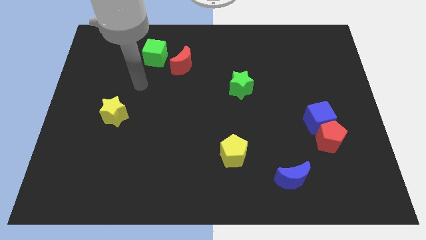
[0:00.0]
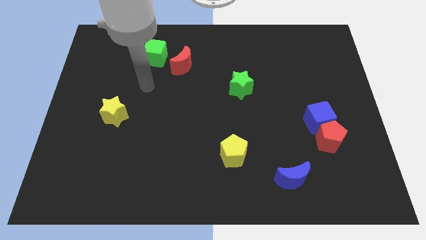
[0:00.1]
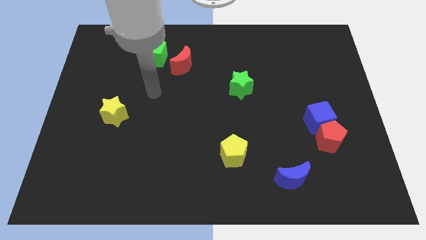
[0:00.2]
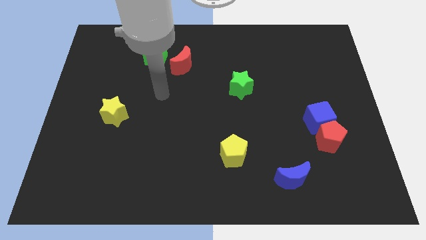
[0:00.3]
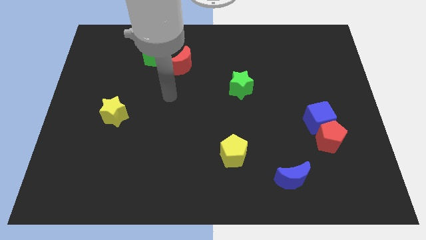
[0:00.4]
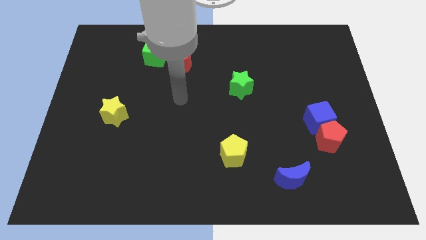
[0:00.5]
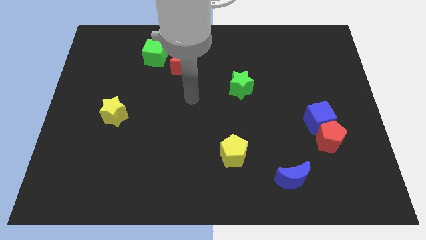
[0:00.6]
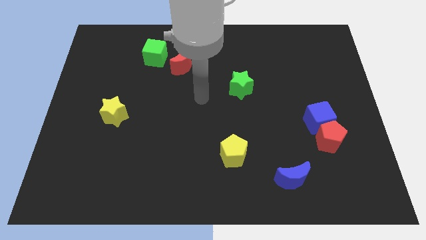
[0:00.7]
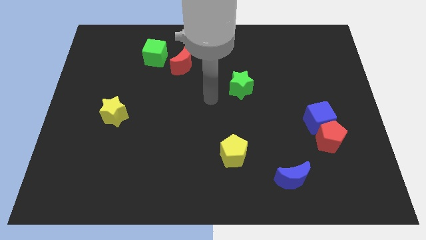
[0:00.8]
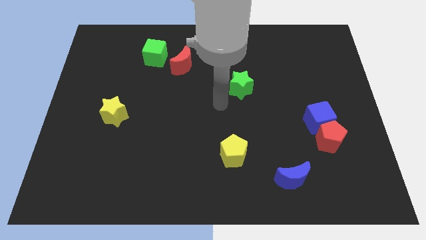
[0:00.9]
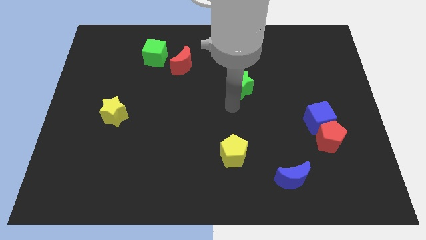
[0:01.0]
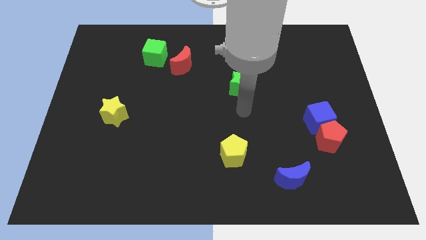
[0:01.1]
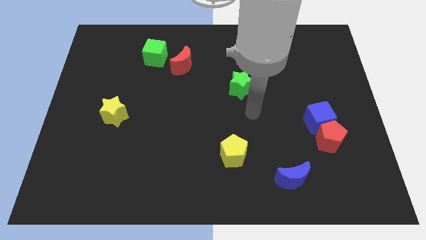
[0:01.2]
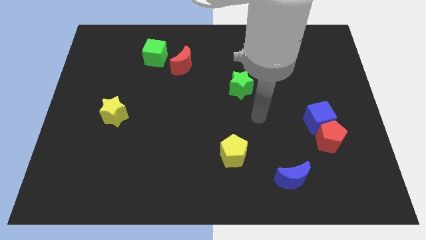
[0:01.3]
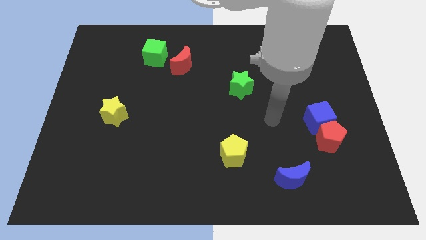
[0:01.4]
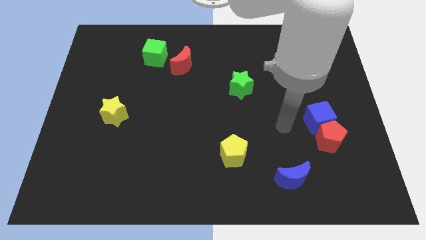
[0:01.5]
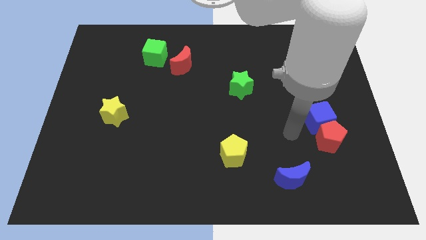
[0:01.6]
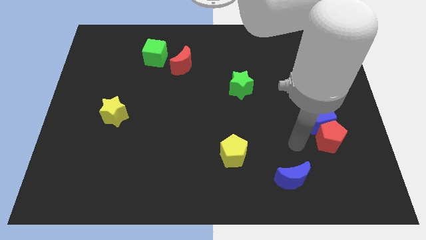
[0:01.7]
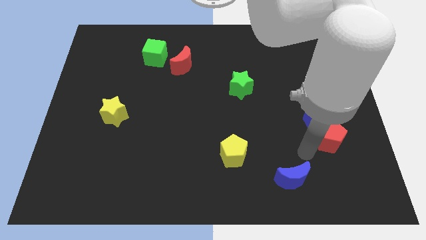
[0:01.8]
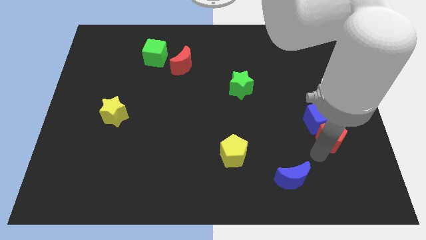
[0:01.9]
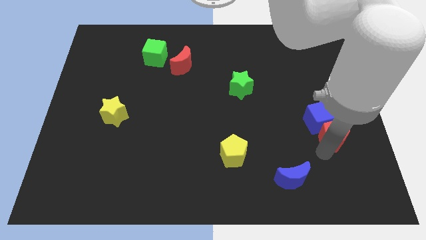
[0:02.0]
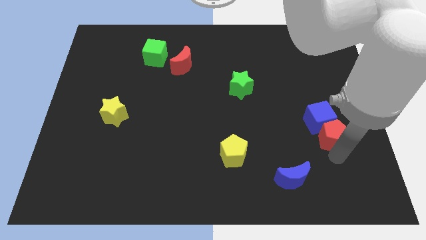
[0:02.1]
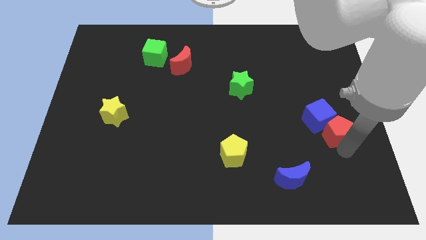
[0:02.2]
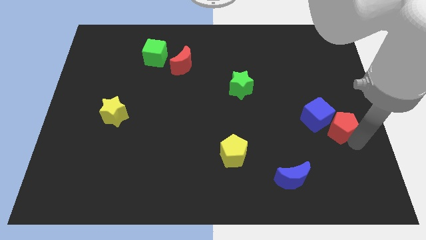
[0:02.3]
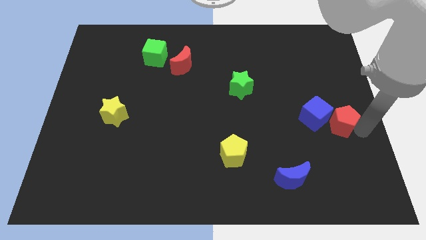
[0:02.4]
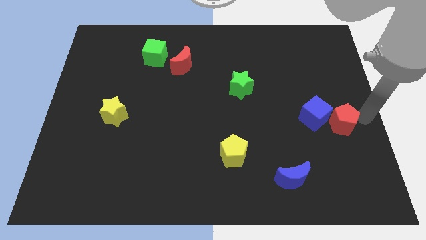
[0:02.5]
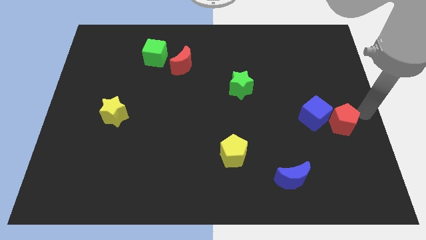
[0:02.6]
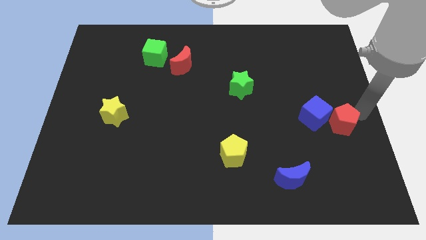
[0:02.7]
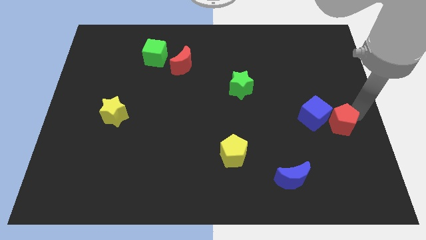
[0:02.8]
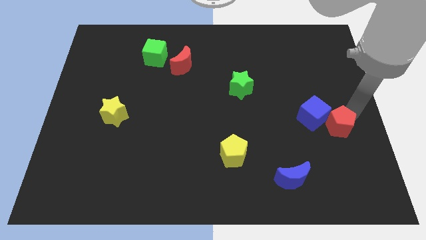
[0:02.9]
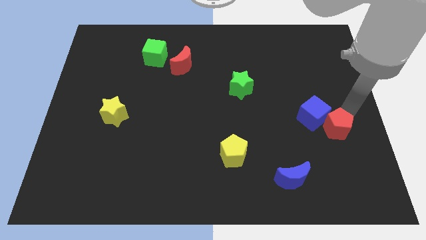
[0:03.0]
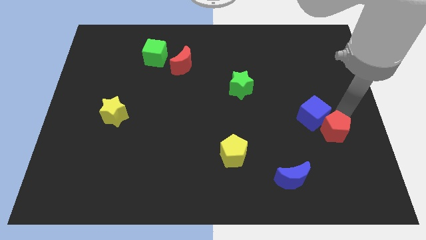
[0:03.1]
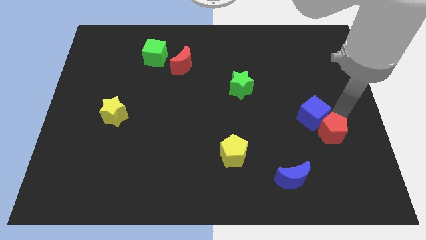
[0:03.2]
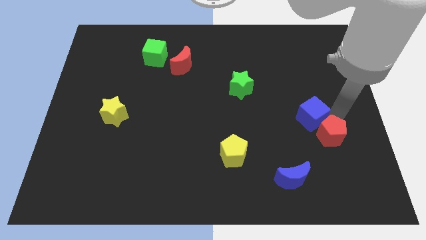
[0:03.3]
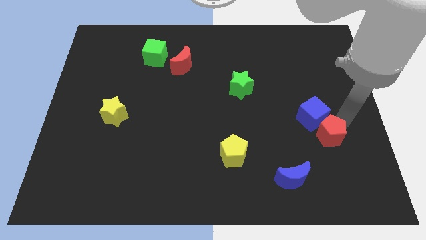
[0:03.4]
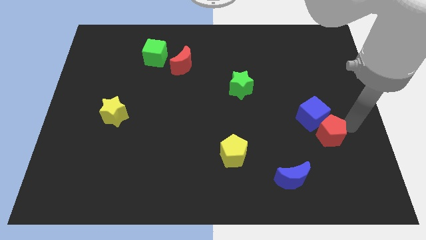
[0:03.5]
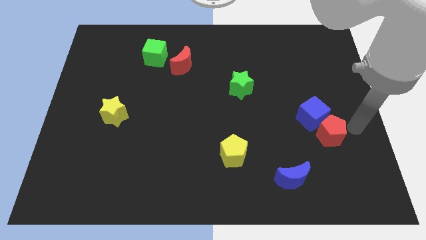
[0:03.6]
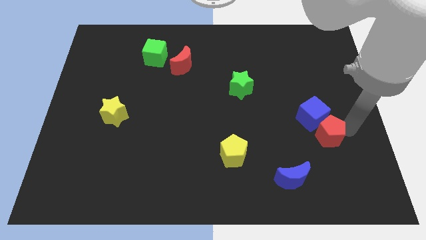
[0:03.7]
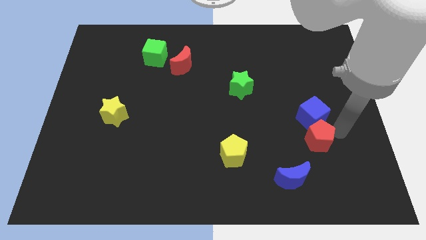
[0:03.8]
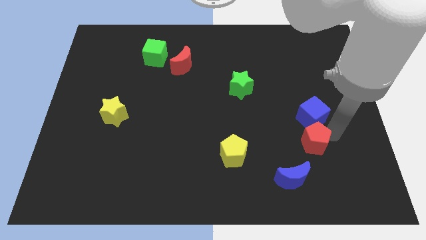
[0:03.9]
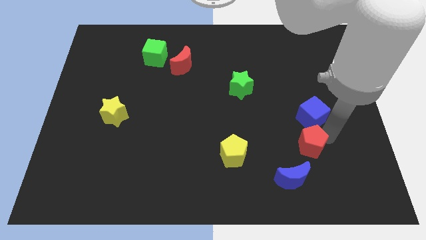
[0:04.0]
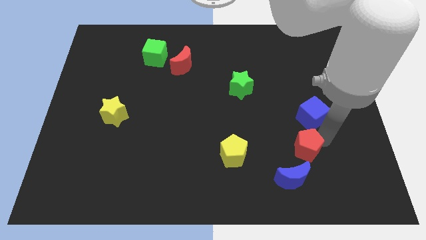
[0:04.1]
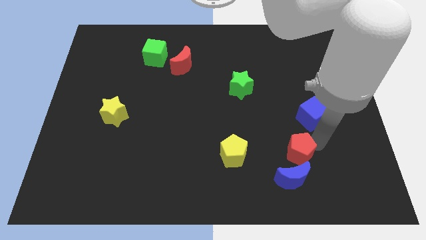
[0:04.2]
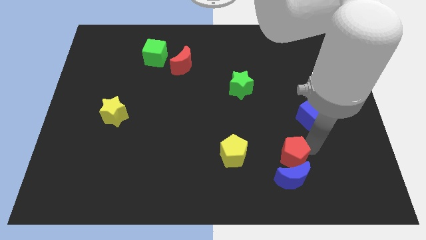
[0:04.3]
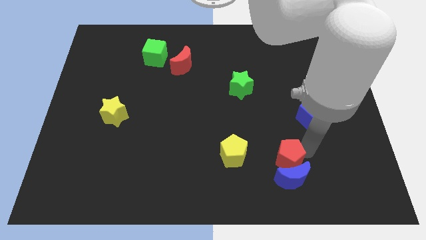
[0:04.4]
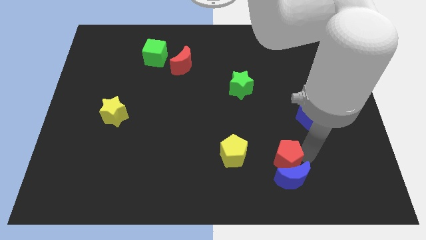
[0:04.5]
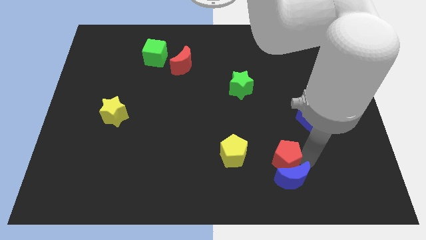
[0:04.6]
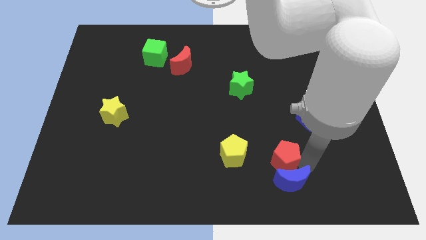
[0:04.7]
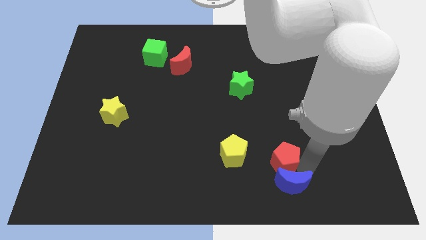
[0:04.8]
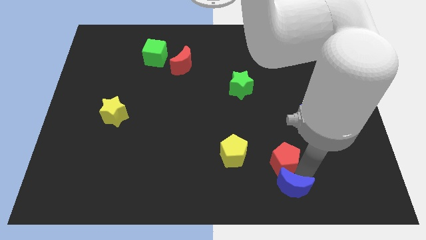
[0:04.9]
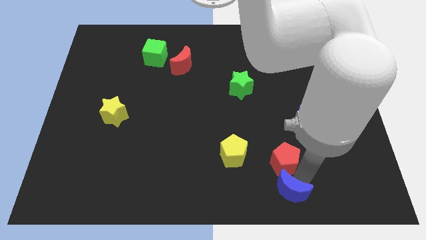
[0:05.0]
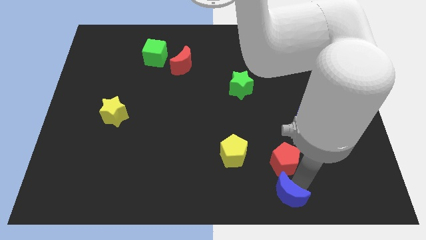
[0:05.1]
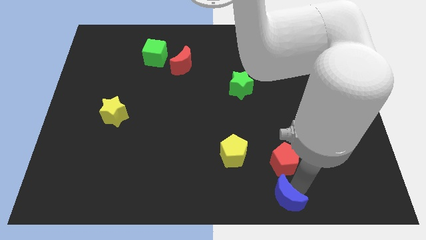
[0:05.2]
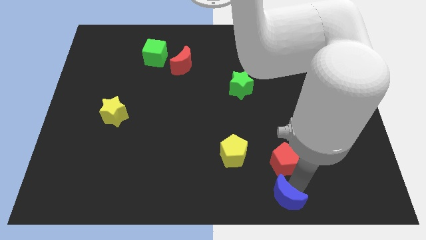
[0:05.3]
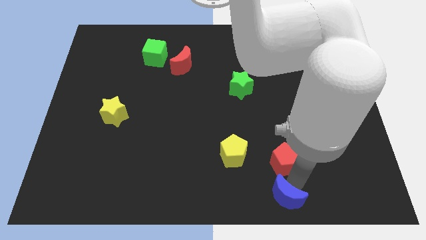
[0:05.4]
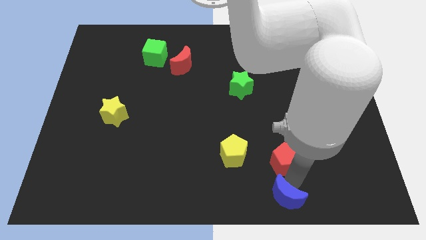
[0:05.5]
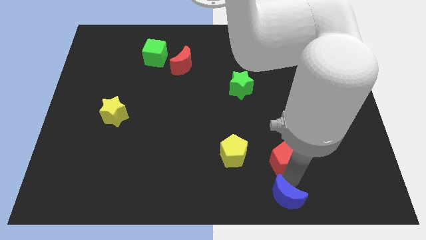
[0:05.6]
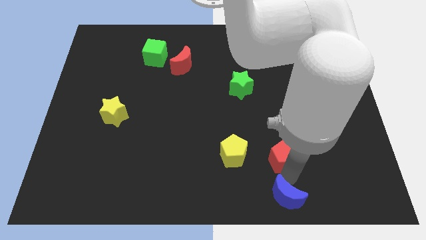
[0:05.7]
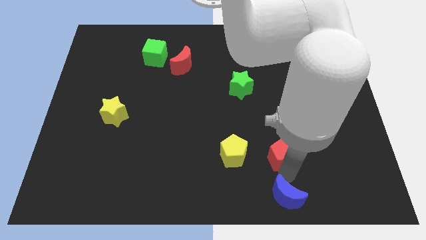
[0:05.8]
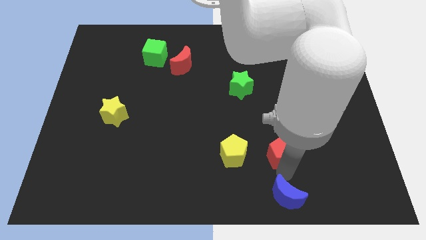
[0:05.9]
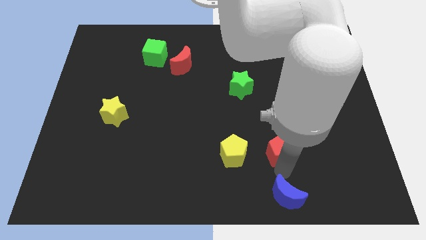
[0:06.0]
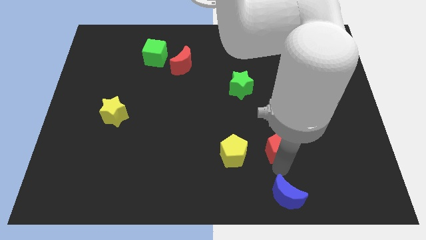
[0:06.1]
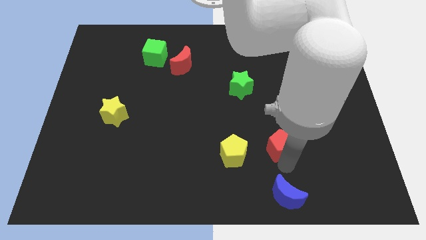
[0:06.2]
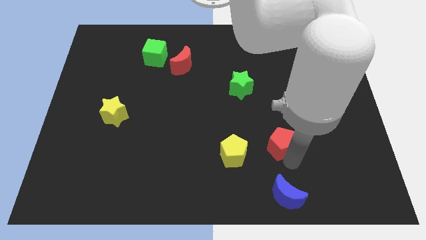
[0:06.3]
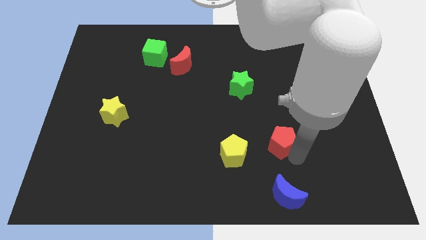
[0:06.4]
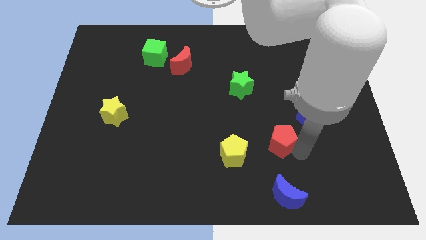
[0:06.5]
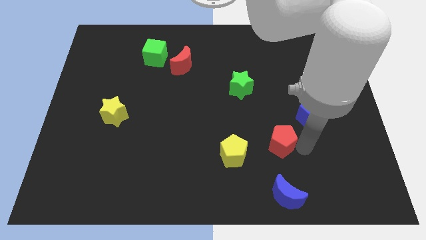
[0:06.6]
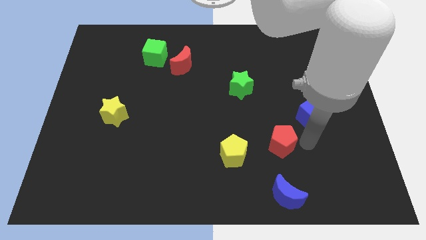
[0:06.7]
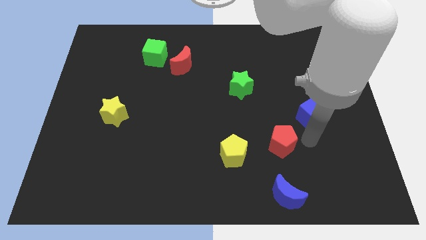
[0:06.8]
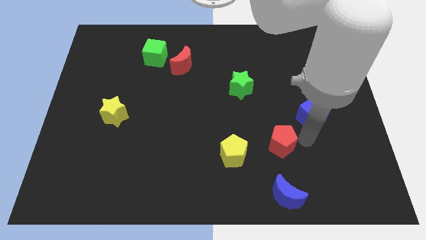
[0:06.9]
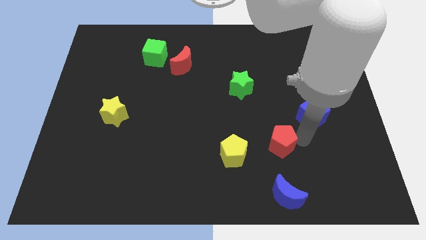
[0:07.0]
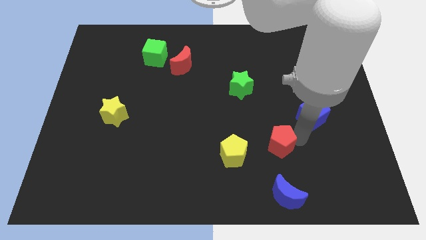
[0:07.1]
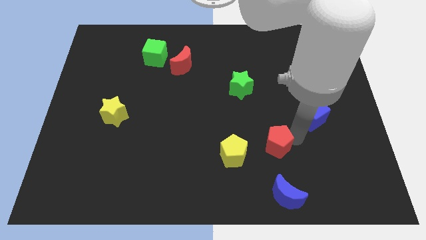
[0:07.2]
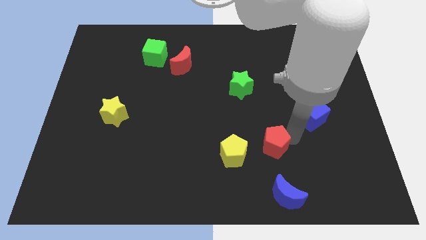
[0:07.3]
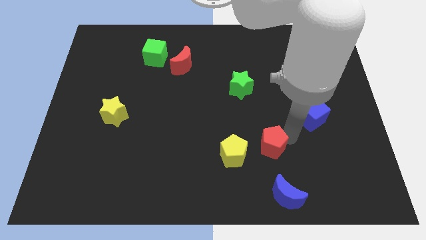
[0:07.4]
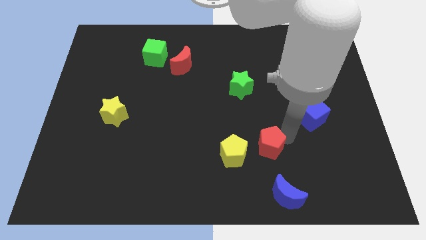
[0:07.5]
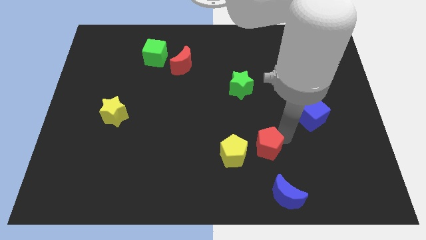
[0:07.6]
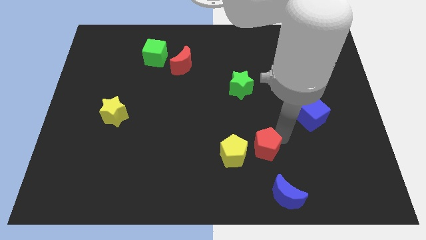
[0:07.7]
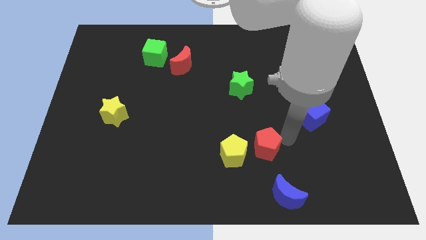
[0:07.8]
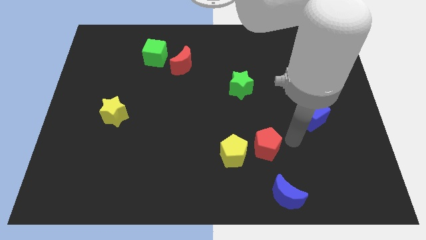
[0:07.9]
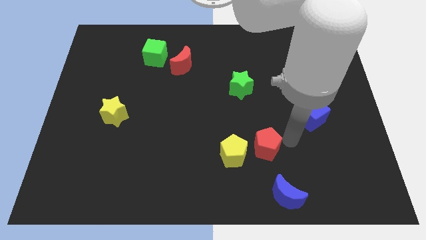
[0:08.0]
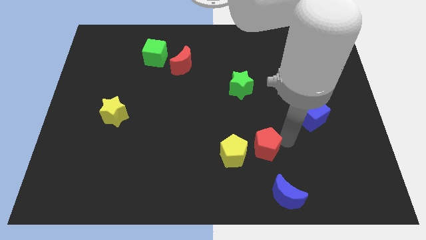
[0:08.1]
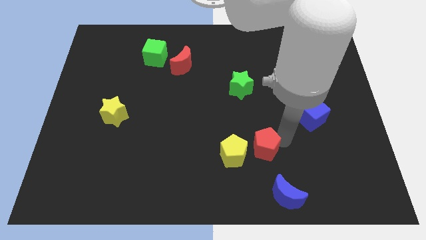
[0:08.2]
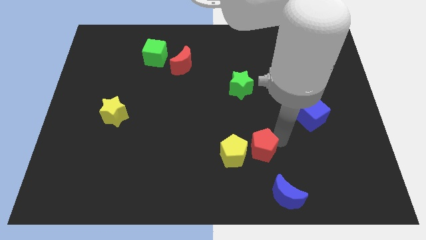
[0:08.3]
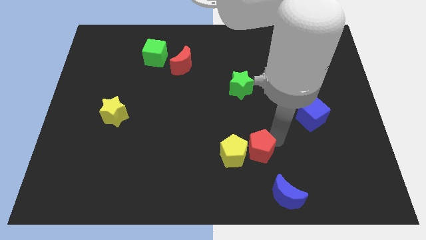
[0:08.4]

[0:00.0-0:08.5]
put the red pentagon close to the yellow pentagon
